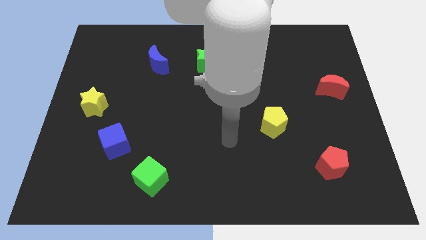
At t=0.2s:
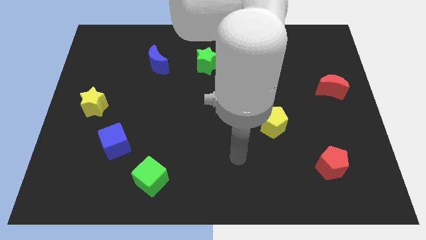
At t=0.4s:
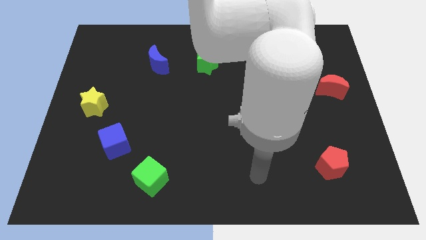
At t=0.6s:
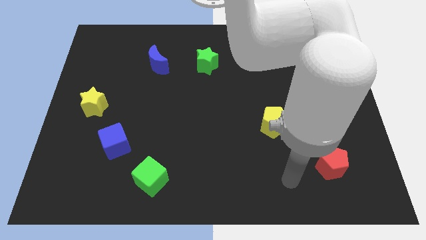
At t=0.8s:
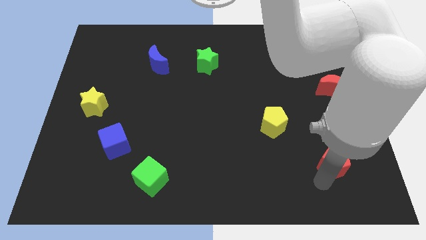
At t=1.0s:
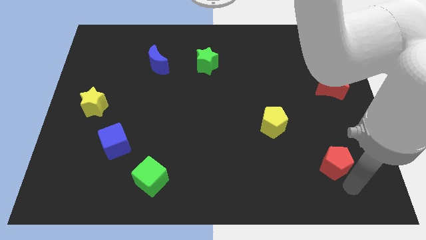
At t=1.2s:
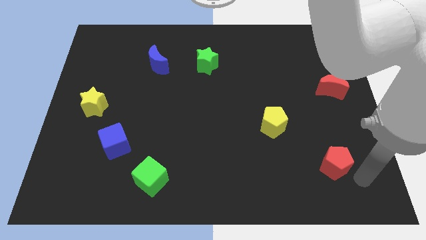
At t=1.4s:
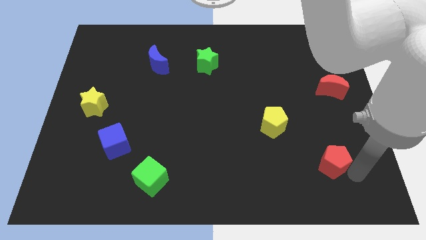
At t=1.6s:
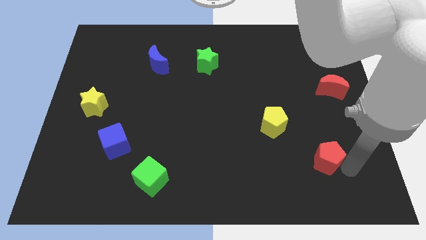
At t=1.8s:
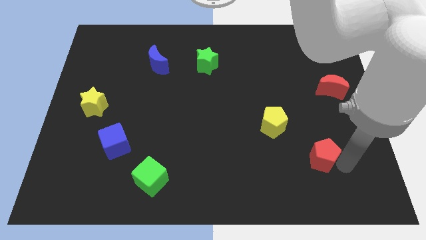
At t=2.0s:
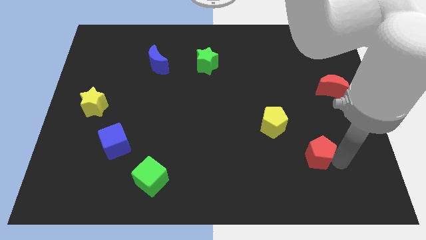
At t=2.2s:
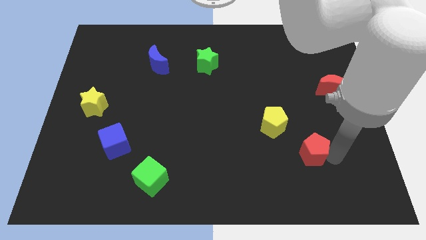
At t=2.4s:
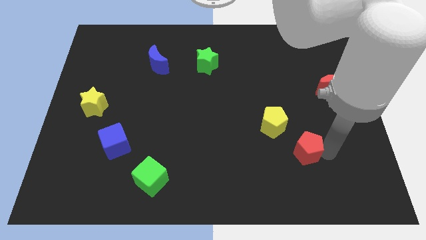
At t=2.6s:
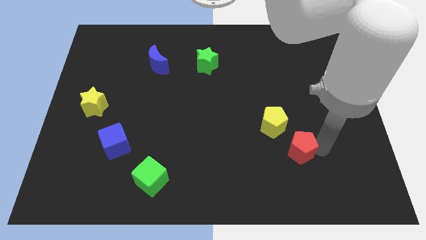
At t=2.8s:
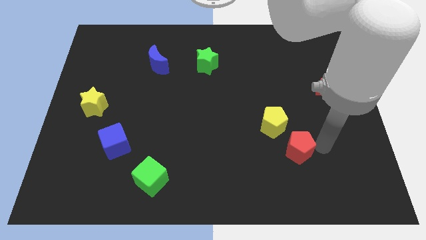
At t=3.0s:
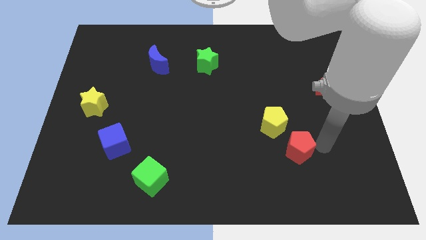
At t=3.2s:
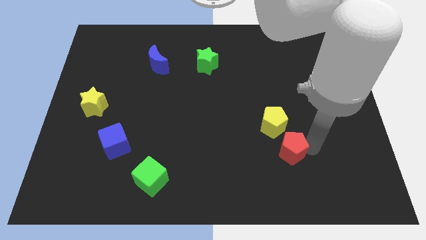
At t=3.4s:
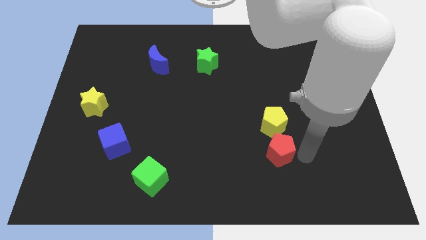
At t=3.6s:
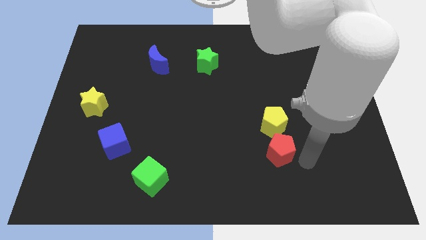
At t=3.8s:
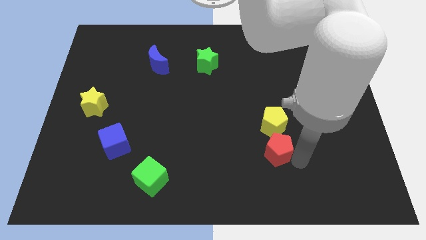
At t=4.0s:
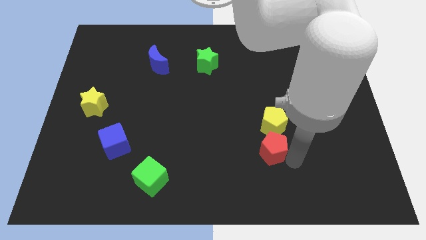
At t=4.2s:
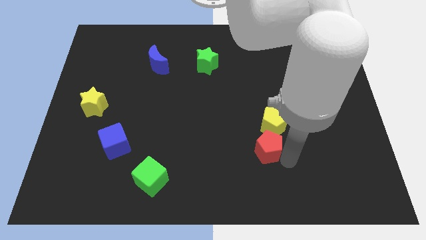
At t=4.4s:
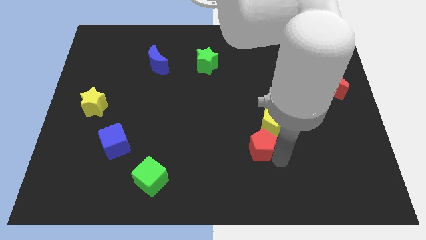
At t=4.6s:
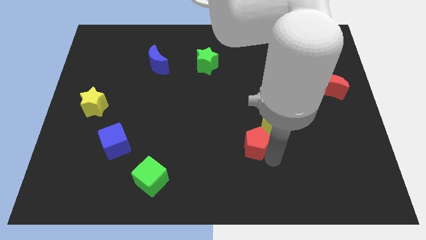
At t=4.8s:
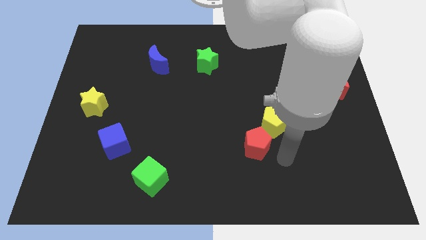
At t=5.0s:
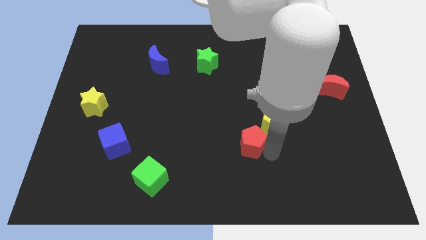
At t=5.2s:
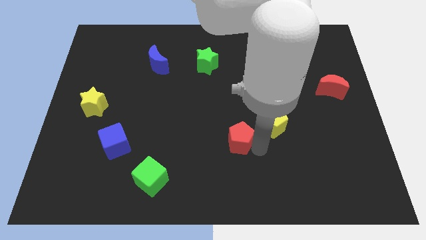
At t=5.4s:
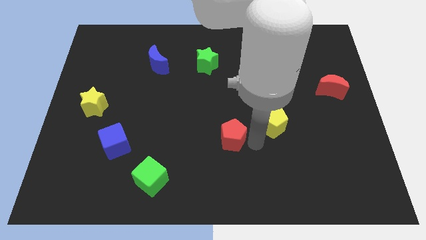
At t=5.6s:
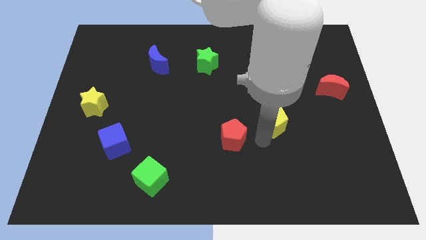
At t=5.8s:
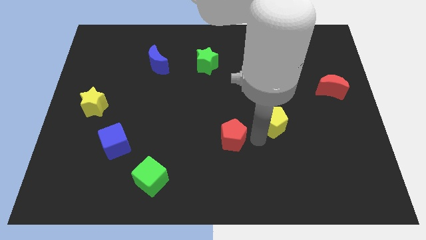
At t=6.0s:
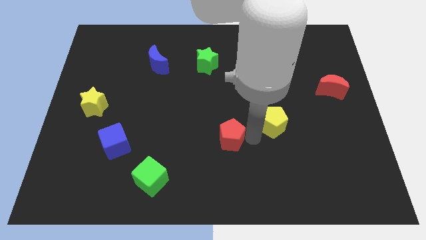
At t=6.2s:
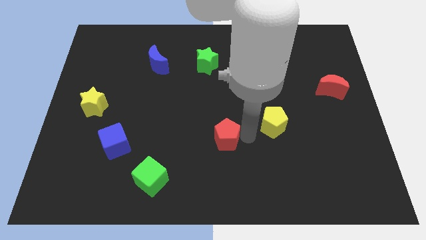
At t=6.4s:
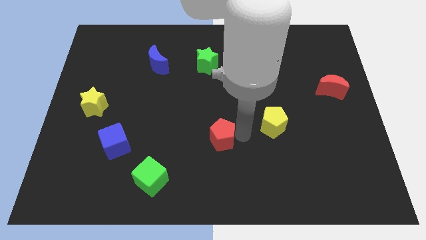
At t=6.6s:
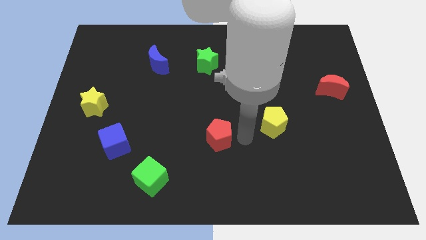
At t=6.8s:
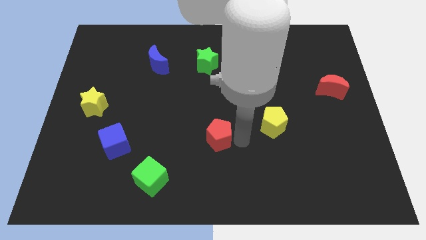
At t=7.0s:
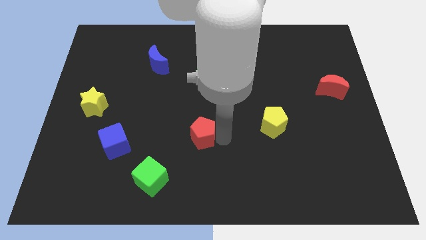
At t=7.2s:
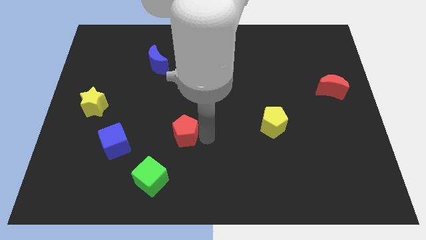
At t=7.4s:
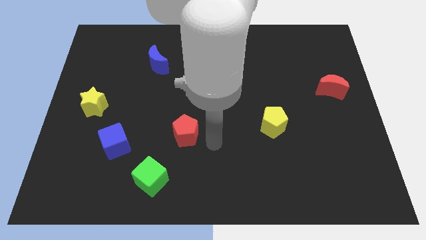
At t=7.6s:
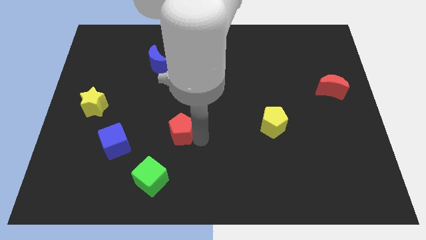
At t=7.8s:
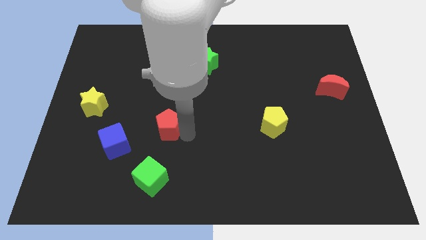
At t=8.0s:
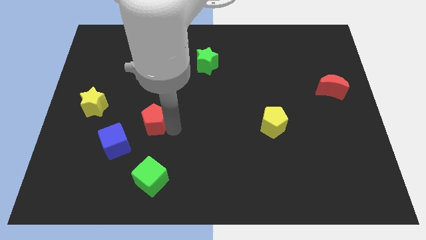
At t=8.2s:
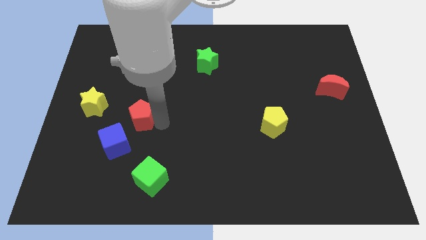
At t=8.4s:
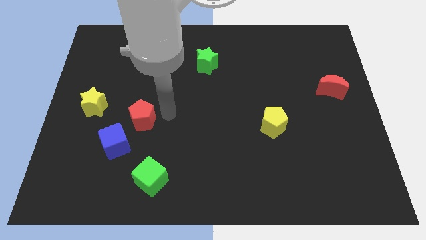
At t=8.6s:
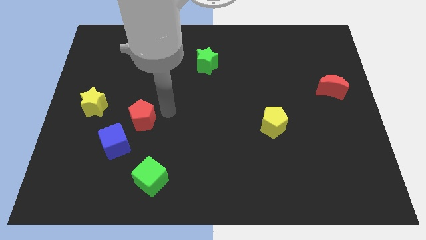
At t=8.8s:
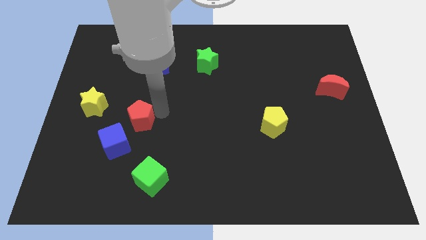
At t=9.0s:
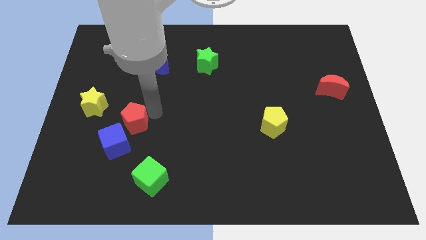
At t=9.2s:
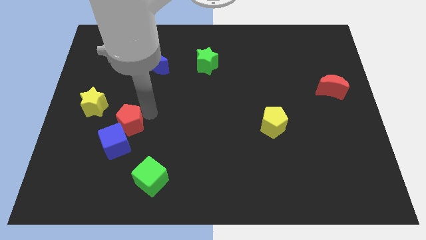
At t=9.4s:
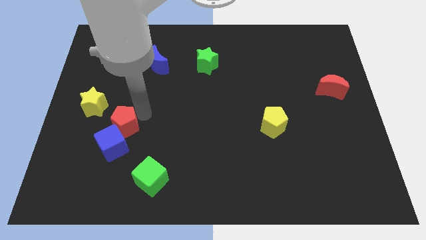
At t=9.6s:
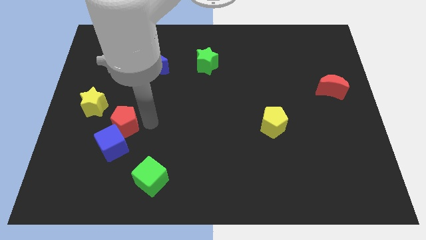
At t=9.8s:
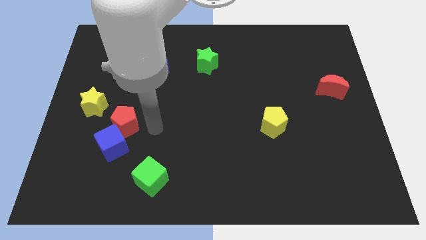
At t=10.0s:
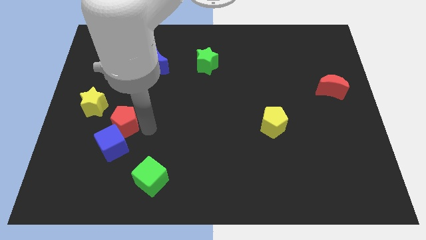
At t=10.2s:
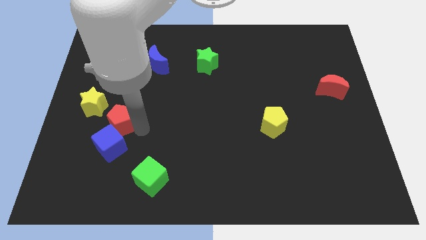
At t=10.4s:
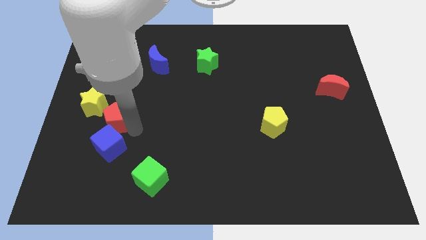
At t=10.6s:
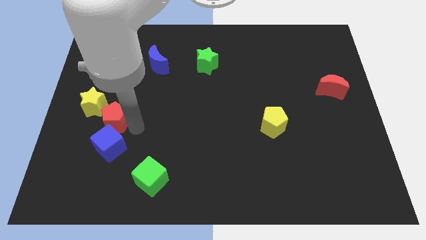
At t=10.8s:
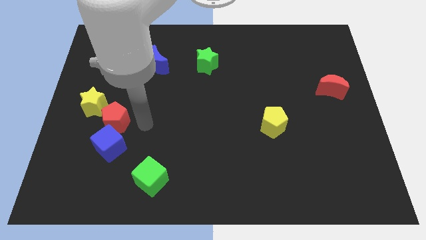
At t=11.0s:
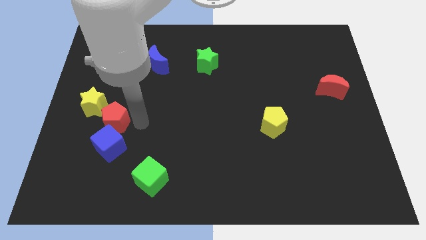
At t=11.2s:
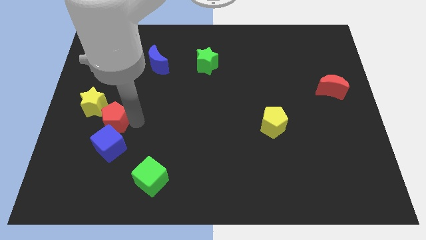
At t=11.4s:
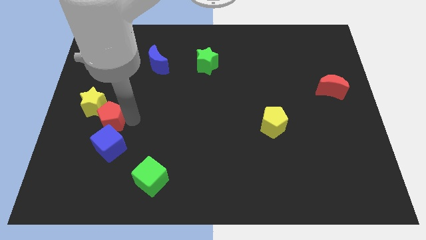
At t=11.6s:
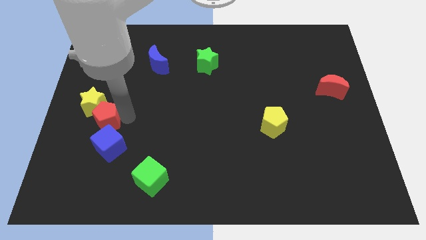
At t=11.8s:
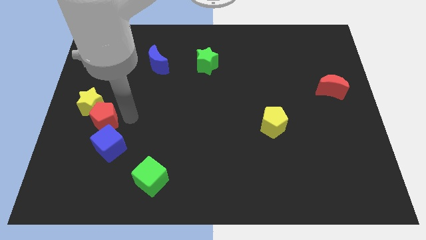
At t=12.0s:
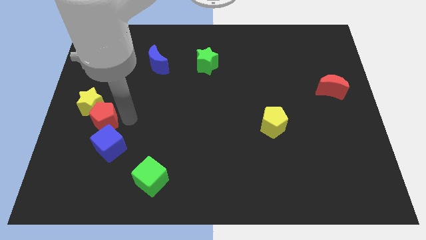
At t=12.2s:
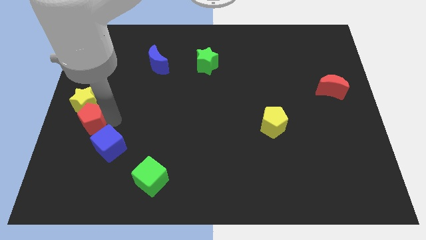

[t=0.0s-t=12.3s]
push the red pentagon to the left side of the board

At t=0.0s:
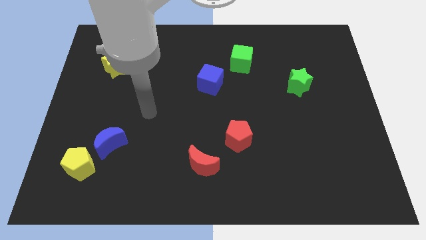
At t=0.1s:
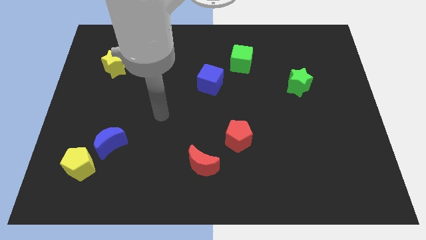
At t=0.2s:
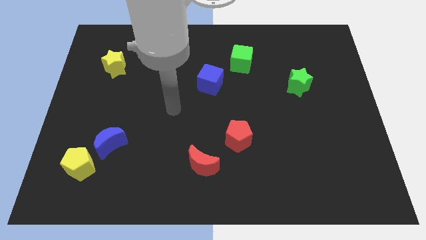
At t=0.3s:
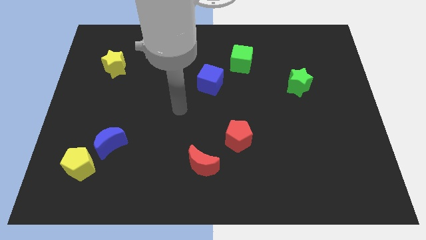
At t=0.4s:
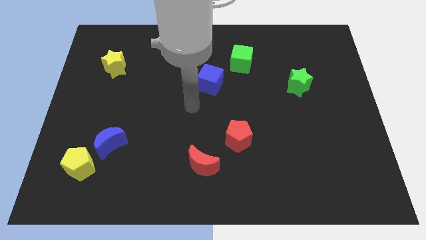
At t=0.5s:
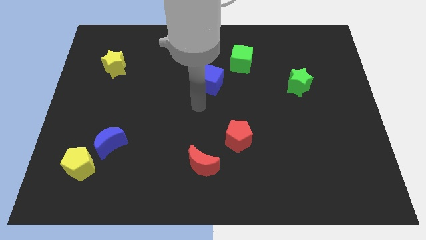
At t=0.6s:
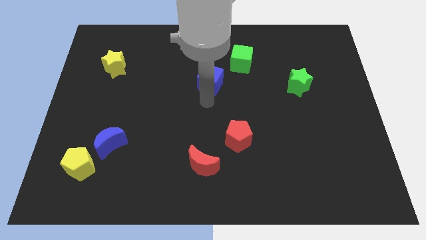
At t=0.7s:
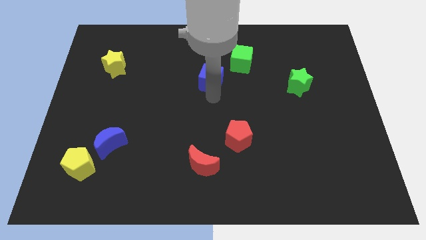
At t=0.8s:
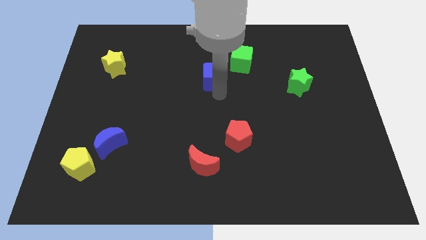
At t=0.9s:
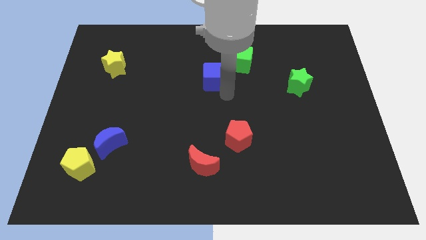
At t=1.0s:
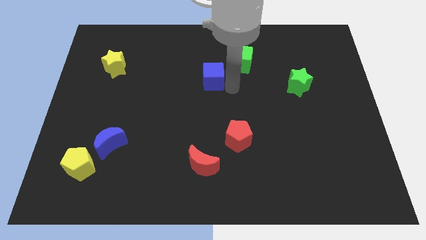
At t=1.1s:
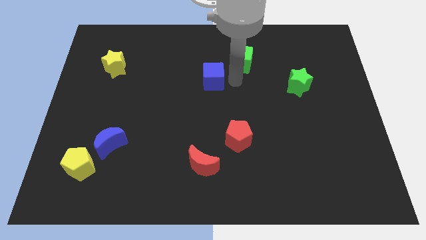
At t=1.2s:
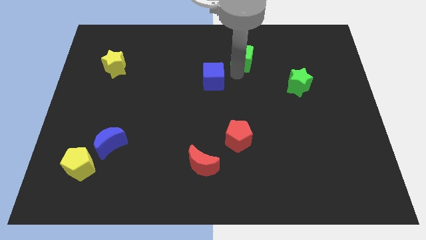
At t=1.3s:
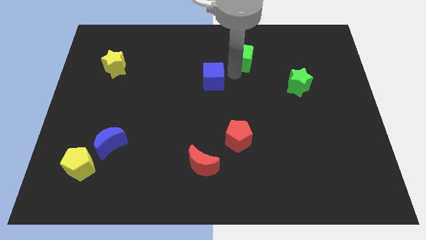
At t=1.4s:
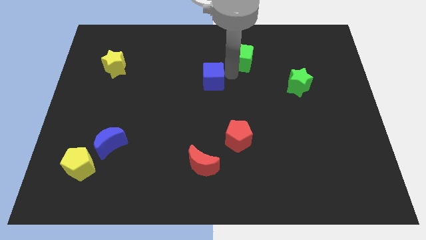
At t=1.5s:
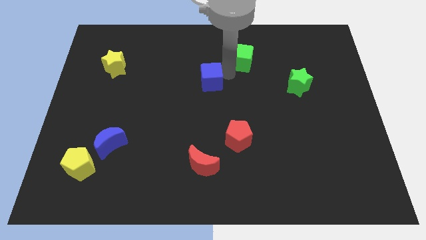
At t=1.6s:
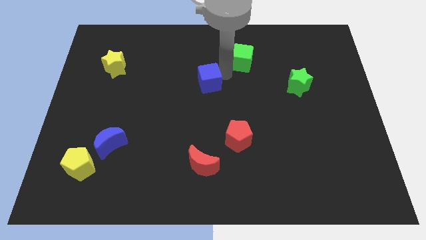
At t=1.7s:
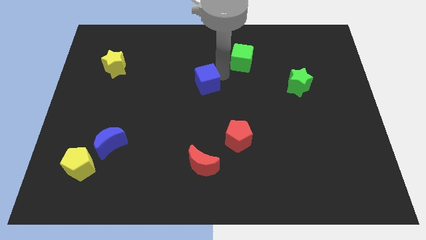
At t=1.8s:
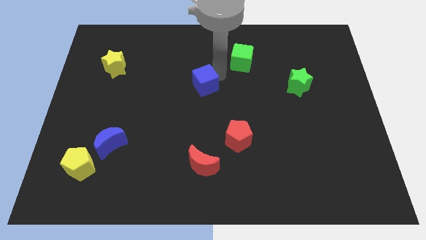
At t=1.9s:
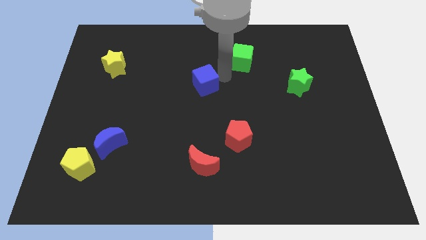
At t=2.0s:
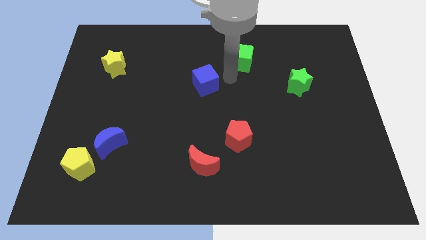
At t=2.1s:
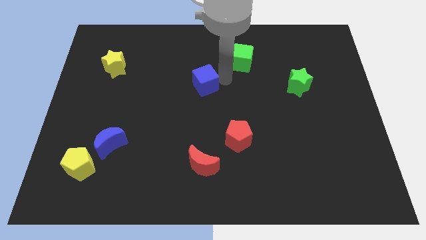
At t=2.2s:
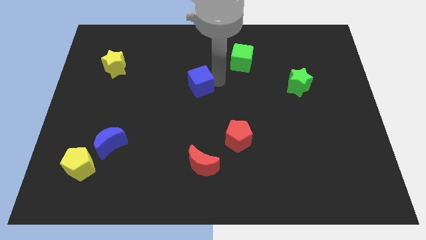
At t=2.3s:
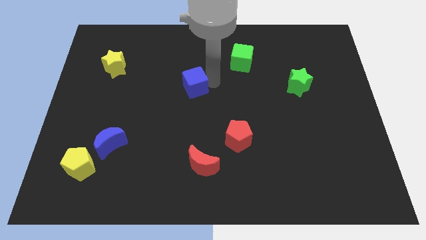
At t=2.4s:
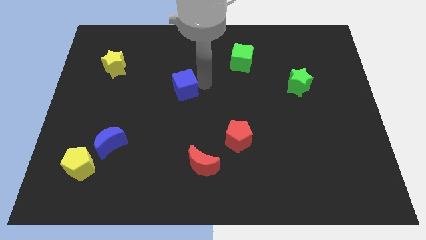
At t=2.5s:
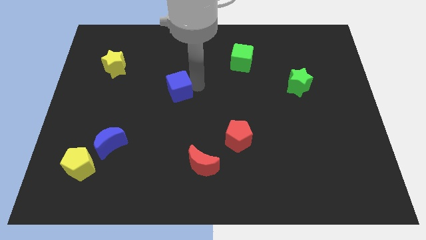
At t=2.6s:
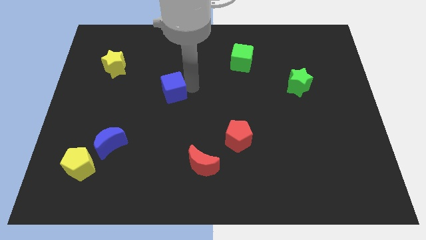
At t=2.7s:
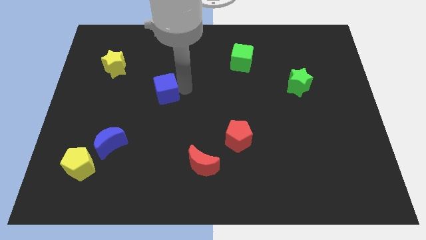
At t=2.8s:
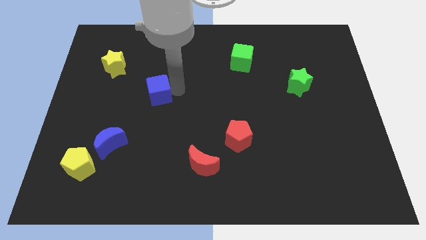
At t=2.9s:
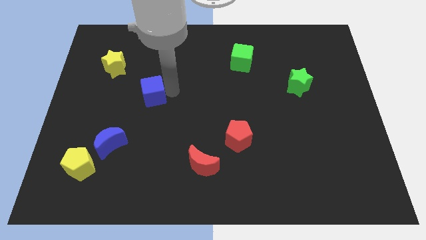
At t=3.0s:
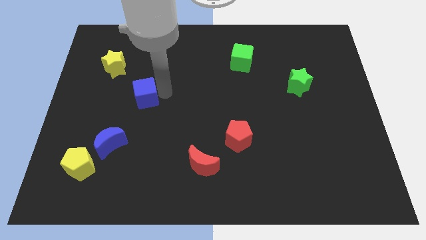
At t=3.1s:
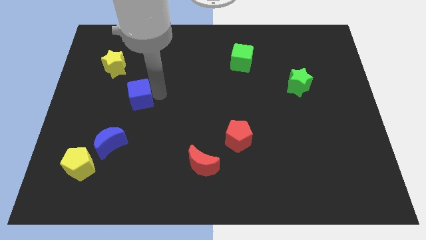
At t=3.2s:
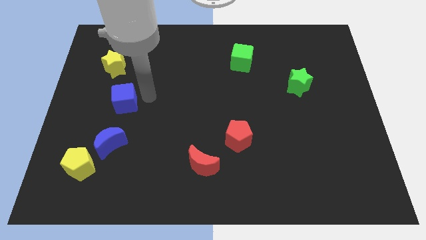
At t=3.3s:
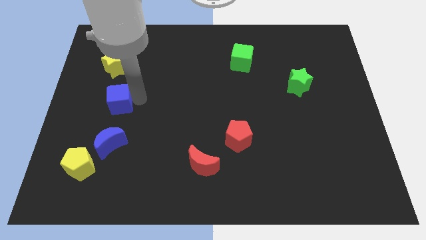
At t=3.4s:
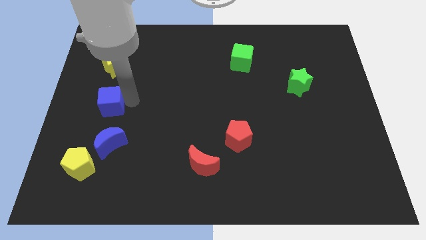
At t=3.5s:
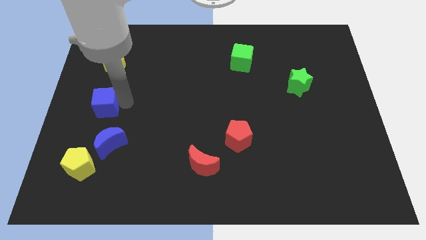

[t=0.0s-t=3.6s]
move the blue cube to the center left
